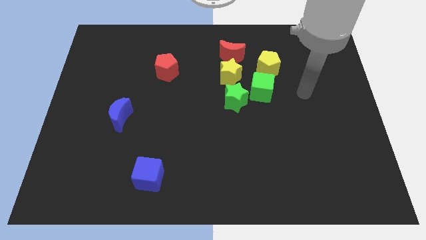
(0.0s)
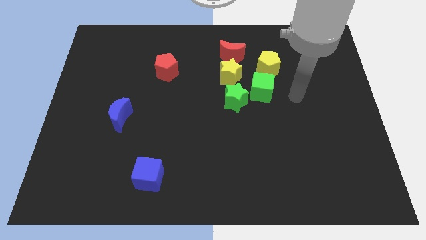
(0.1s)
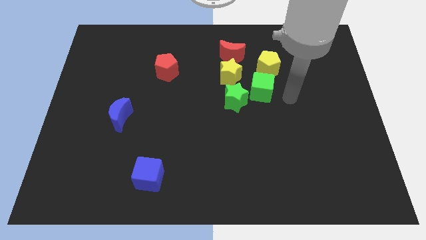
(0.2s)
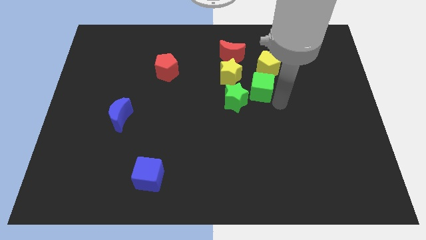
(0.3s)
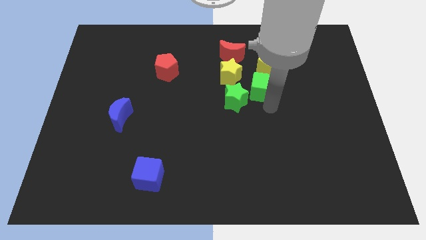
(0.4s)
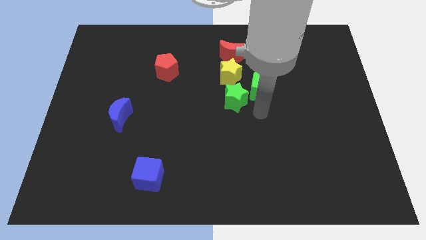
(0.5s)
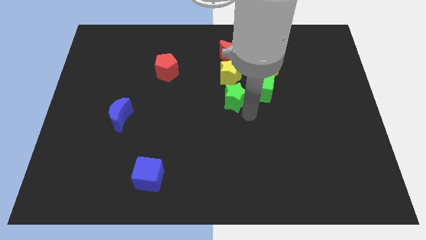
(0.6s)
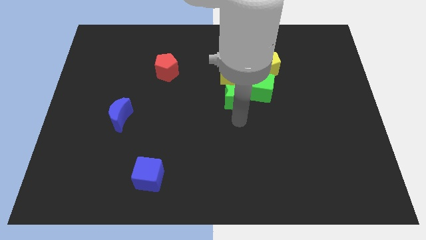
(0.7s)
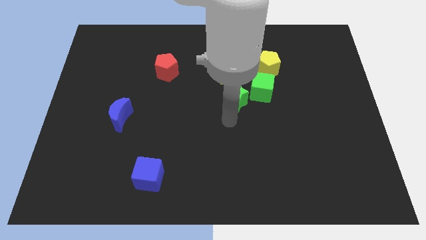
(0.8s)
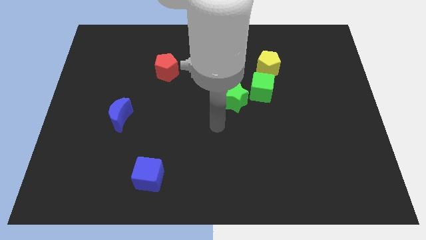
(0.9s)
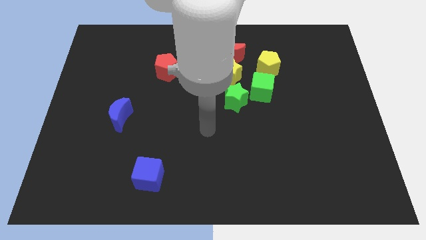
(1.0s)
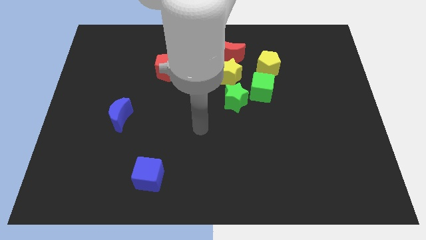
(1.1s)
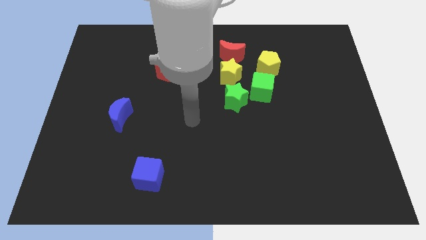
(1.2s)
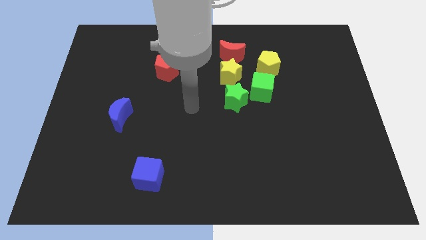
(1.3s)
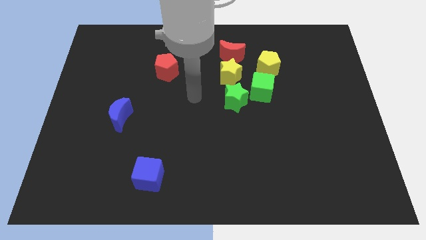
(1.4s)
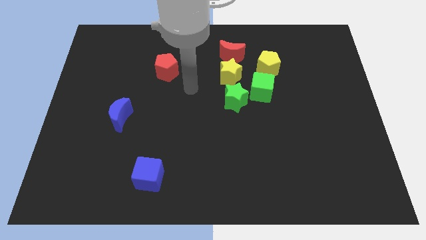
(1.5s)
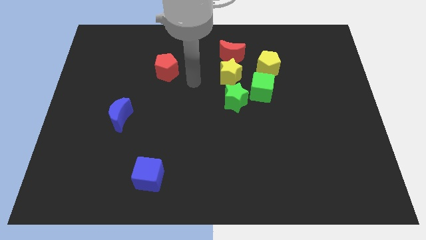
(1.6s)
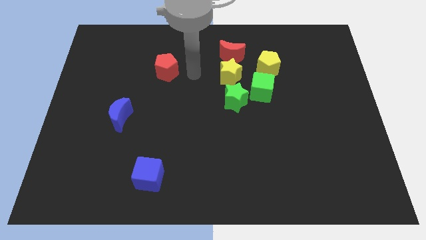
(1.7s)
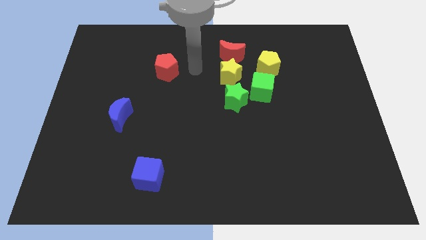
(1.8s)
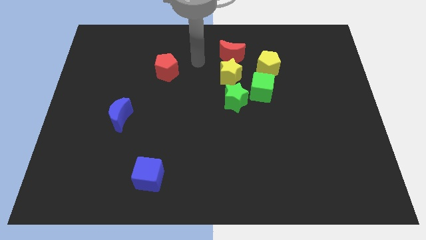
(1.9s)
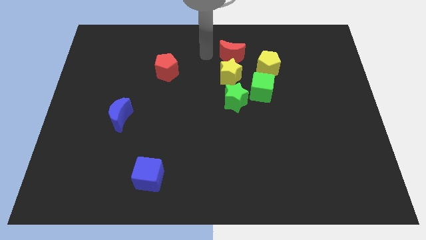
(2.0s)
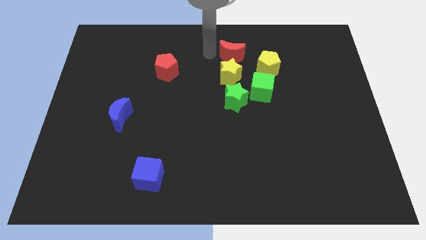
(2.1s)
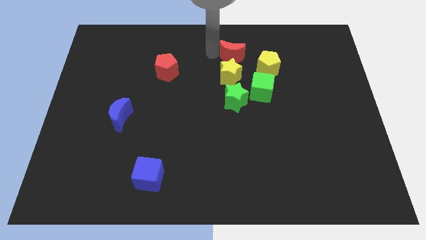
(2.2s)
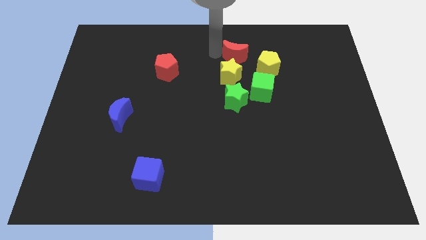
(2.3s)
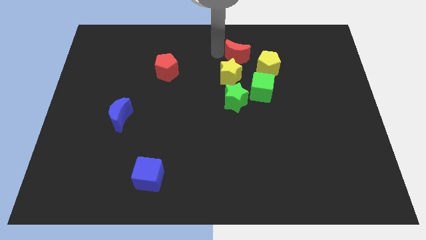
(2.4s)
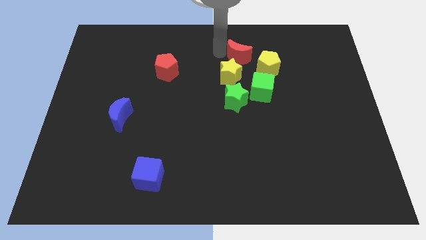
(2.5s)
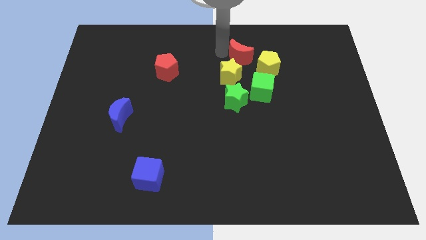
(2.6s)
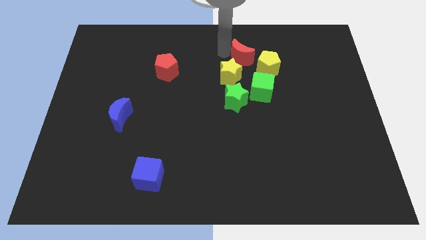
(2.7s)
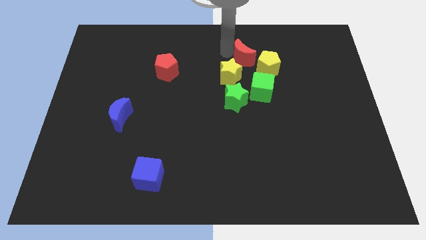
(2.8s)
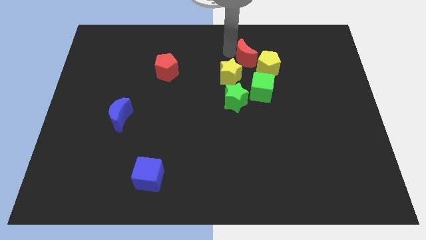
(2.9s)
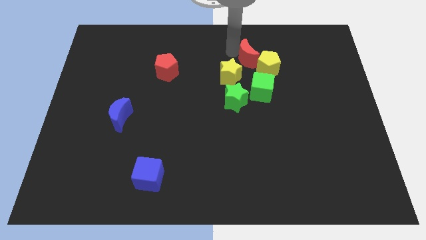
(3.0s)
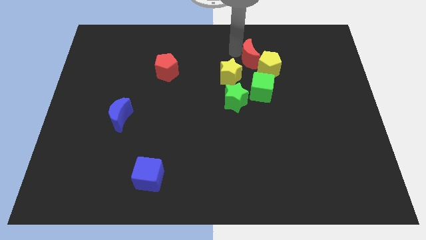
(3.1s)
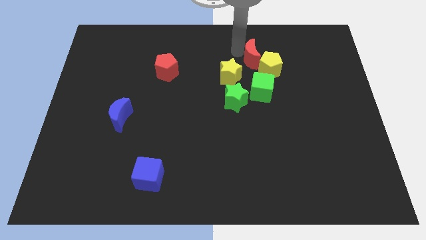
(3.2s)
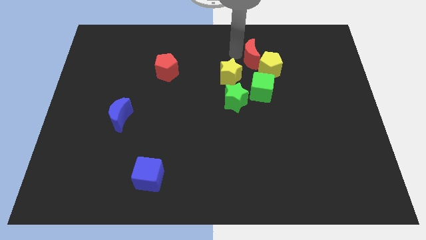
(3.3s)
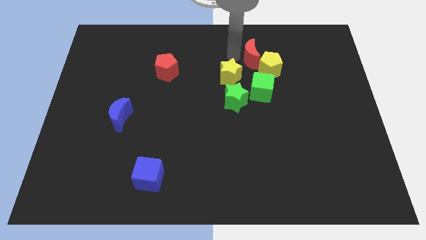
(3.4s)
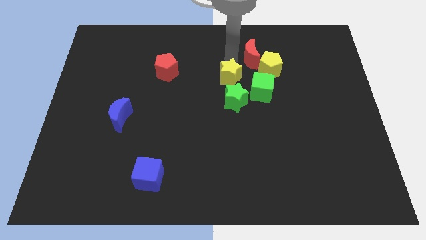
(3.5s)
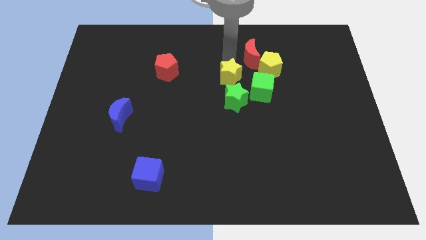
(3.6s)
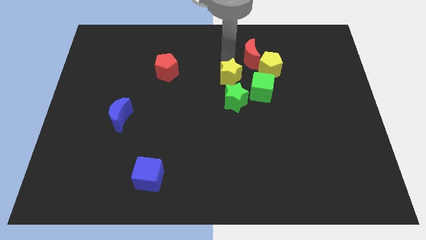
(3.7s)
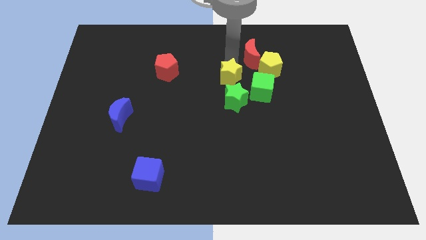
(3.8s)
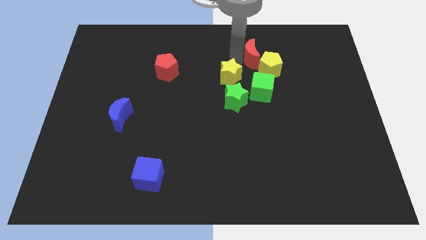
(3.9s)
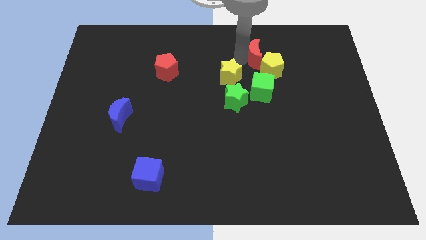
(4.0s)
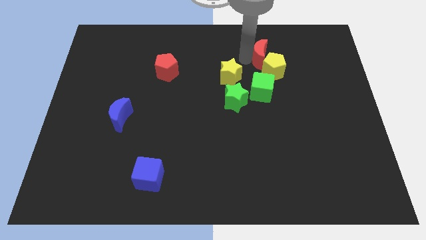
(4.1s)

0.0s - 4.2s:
slightly push the red moon to the right

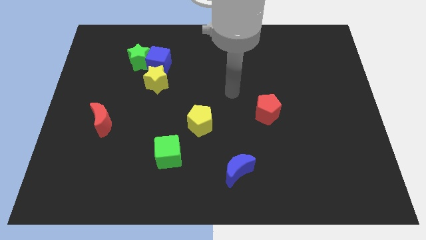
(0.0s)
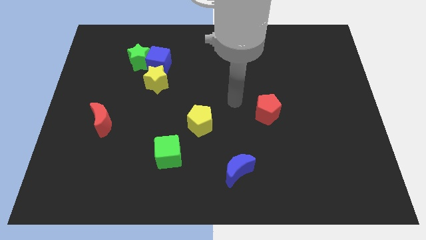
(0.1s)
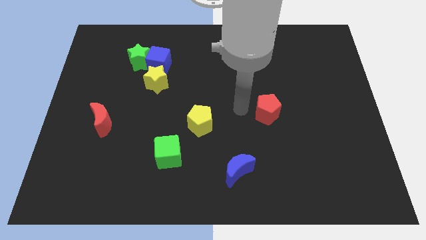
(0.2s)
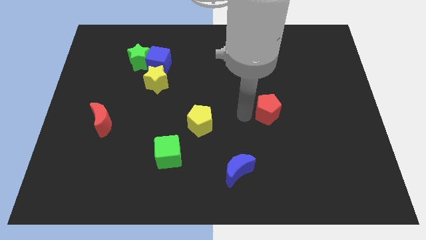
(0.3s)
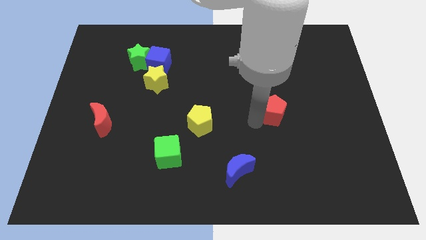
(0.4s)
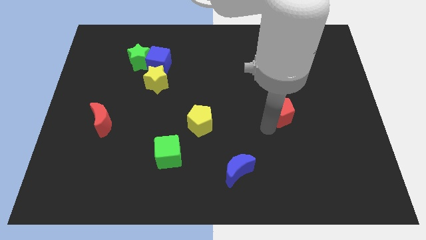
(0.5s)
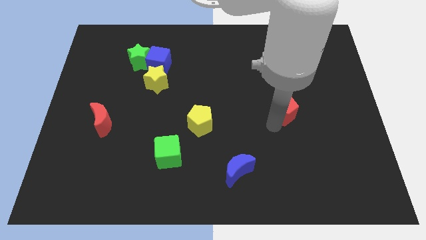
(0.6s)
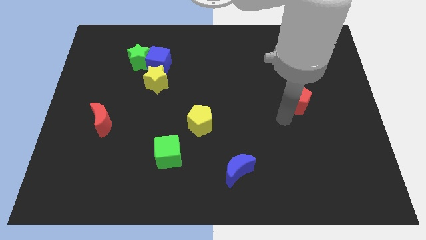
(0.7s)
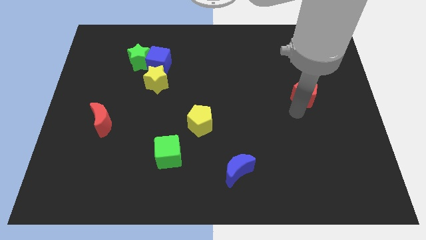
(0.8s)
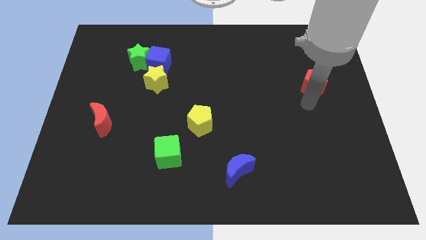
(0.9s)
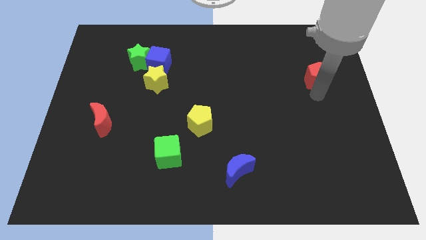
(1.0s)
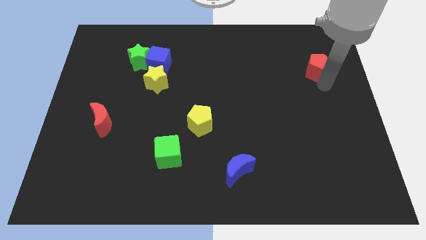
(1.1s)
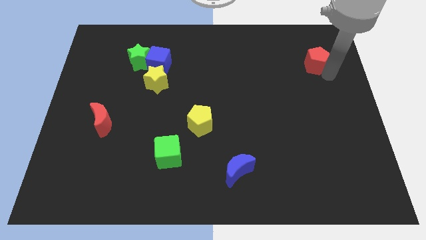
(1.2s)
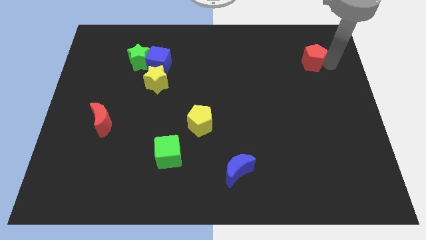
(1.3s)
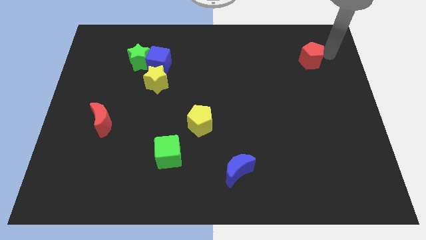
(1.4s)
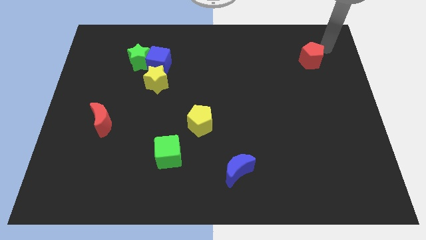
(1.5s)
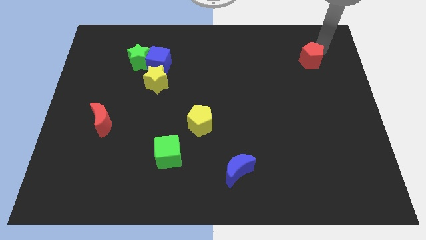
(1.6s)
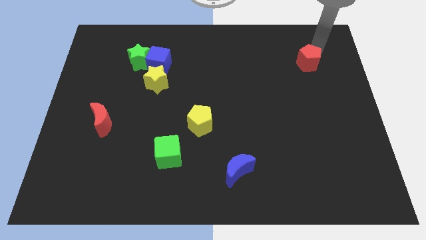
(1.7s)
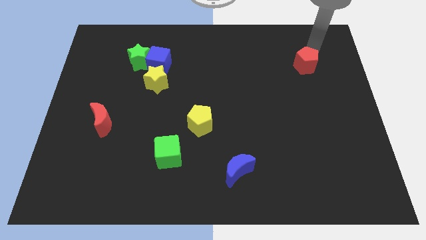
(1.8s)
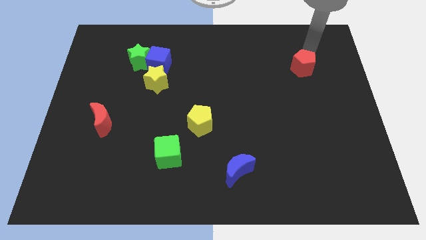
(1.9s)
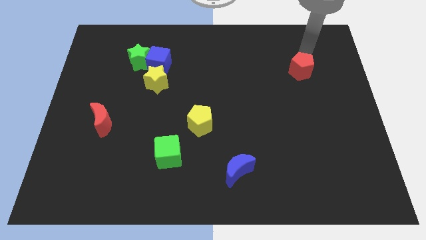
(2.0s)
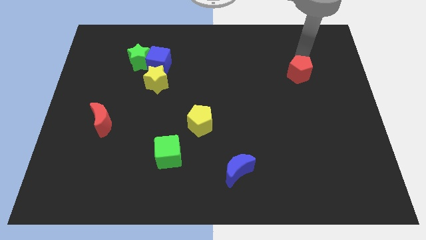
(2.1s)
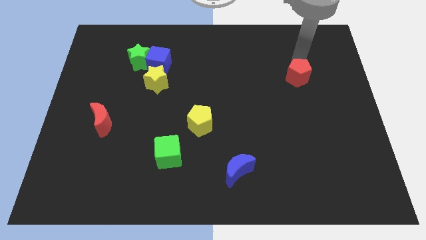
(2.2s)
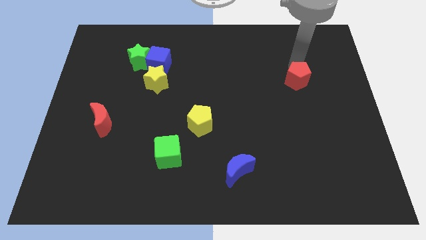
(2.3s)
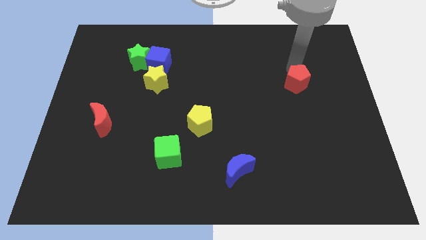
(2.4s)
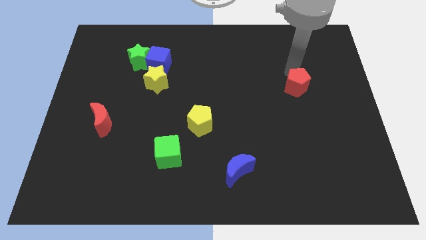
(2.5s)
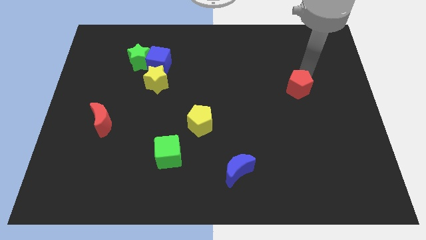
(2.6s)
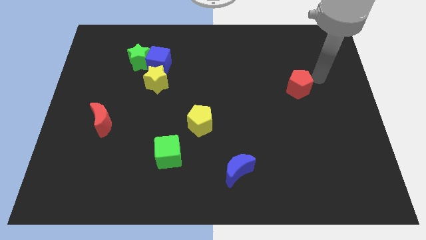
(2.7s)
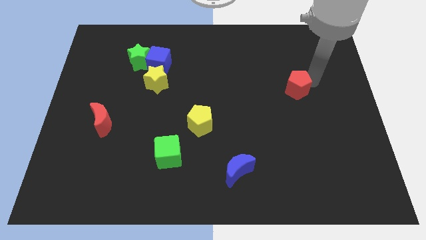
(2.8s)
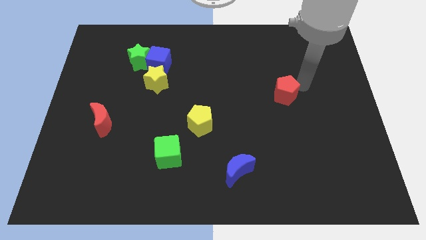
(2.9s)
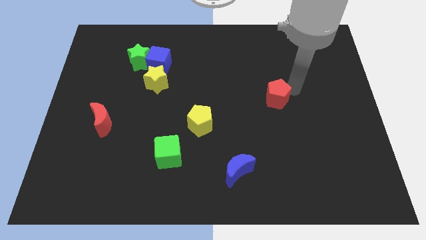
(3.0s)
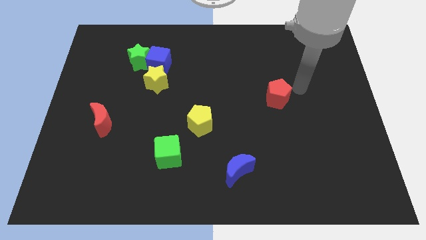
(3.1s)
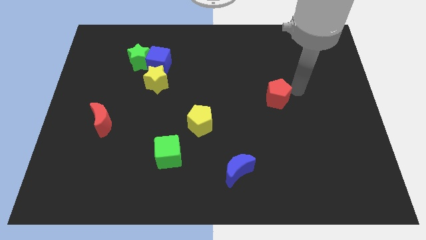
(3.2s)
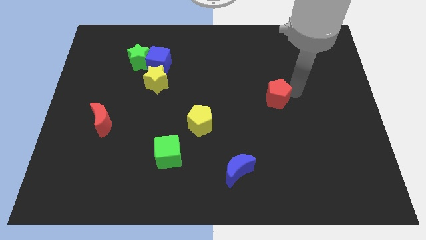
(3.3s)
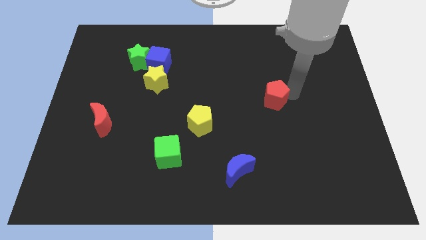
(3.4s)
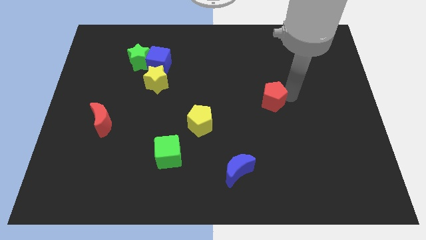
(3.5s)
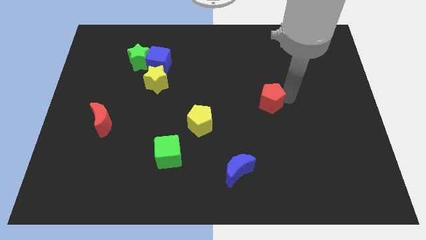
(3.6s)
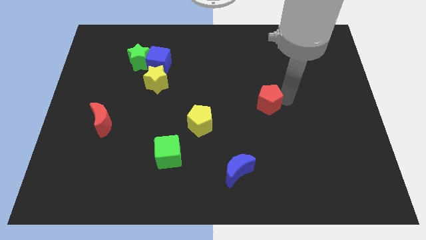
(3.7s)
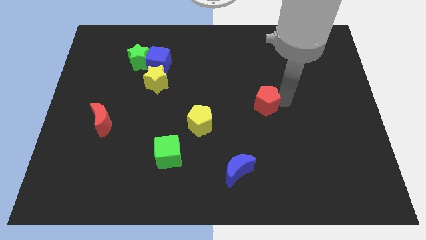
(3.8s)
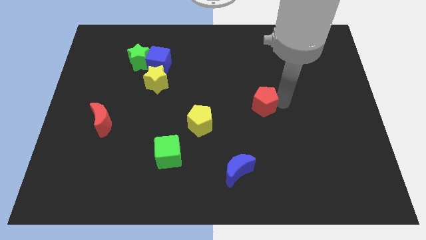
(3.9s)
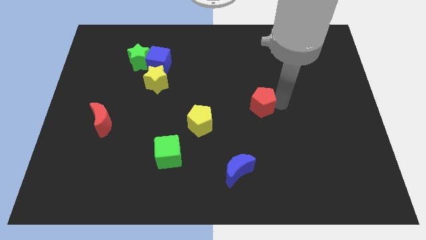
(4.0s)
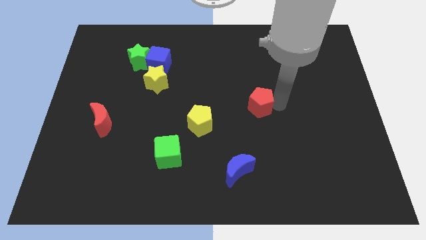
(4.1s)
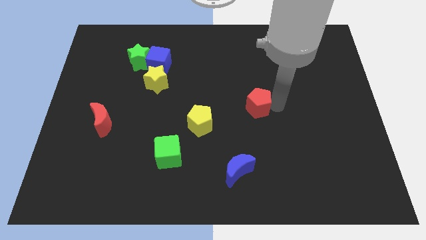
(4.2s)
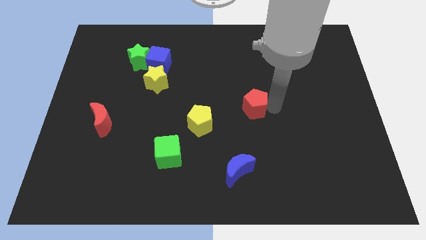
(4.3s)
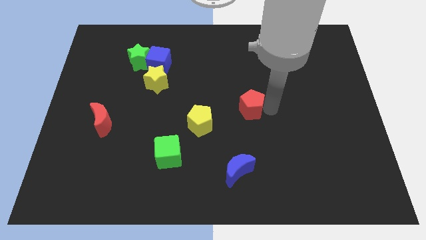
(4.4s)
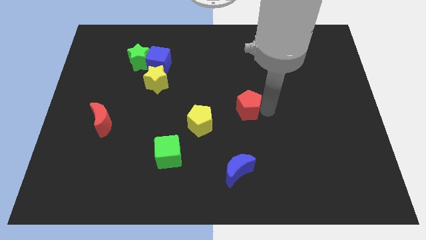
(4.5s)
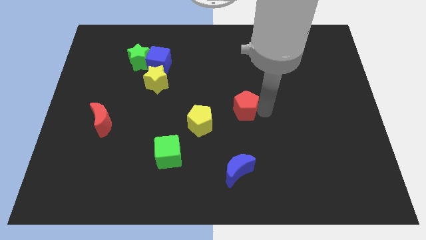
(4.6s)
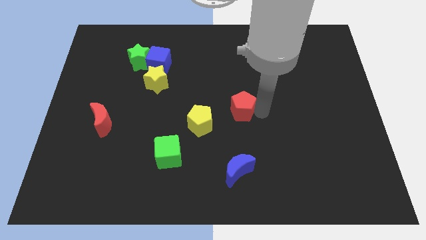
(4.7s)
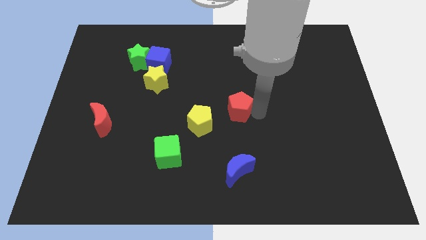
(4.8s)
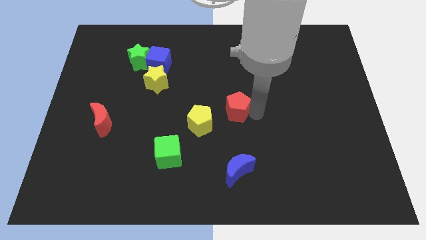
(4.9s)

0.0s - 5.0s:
push the red pentagon left a little
